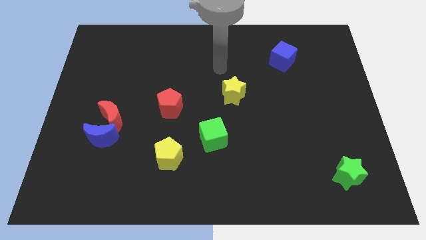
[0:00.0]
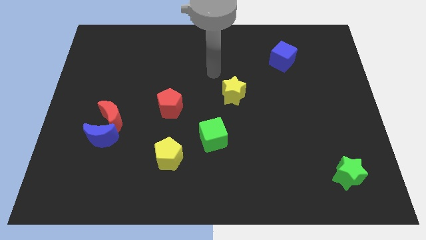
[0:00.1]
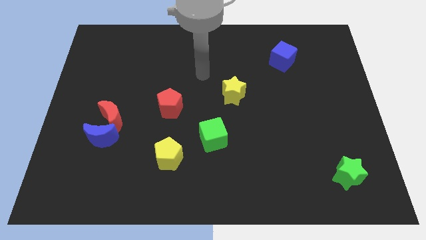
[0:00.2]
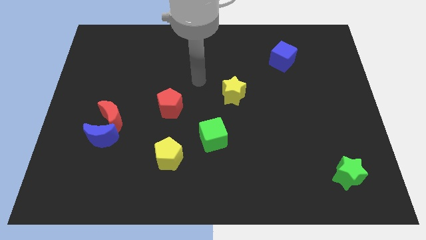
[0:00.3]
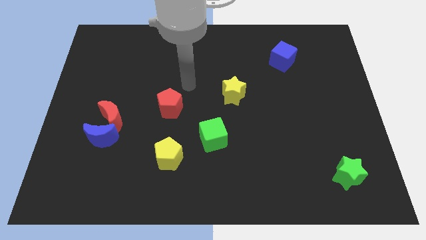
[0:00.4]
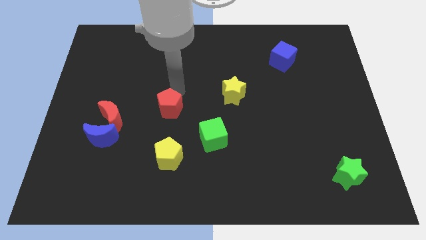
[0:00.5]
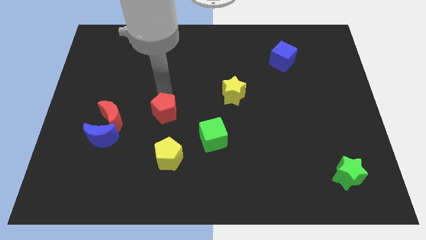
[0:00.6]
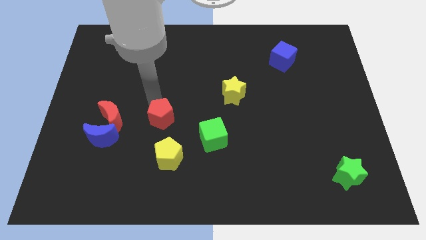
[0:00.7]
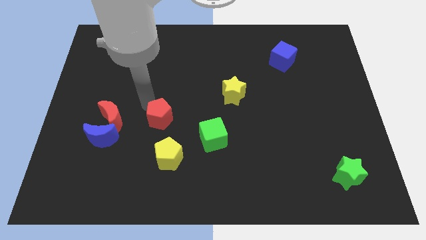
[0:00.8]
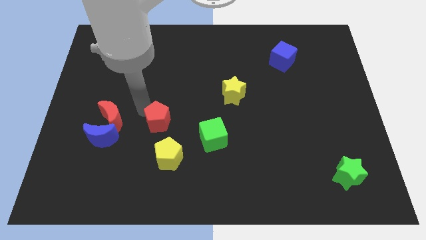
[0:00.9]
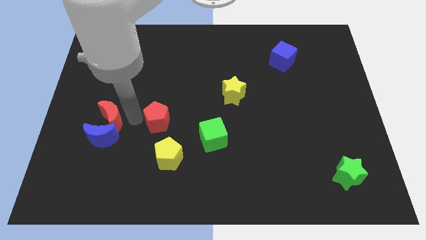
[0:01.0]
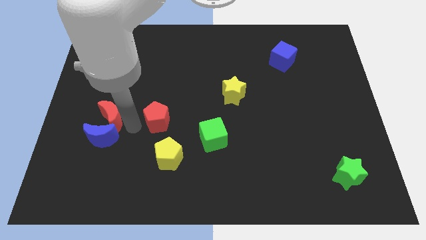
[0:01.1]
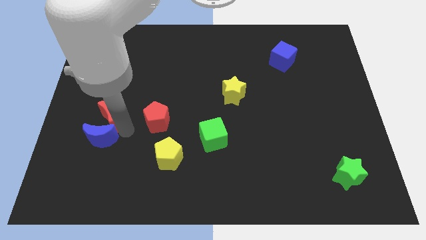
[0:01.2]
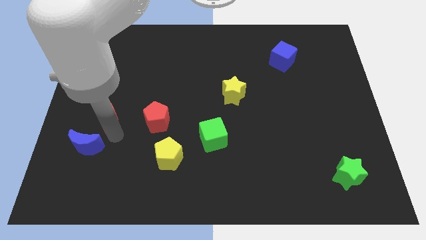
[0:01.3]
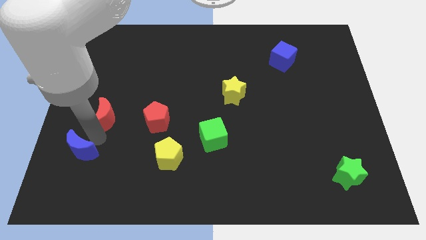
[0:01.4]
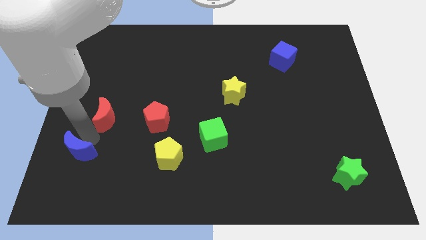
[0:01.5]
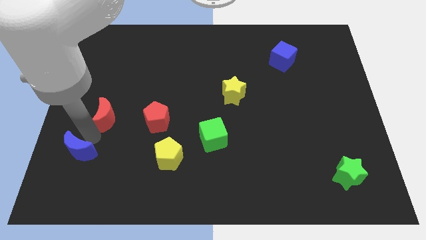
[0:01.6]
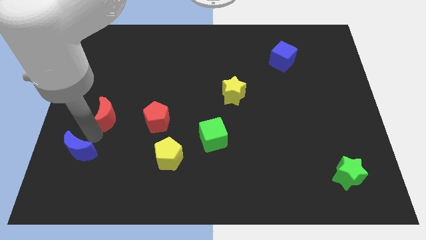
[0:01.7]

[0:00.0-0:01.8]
pull the red moon apart from the blue moon

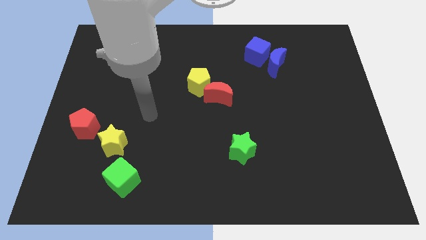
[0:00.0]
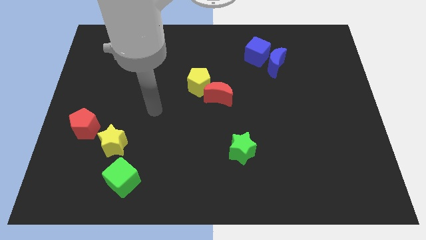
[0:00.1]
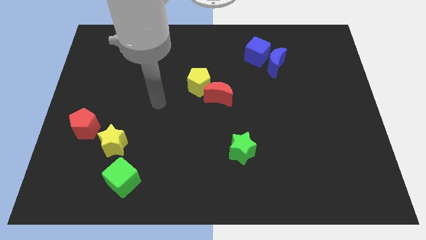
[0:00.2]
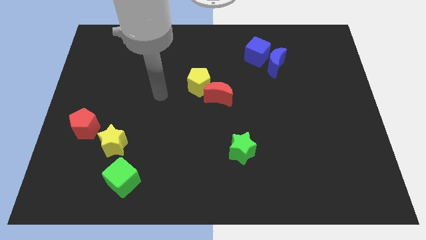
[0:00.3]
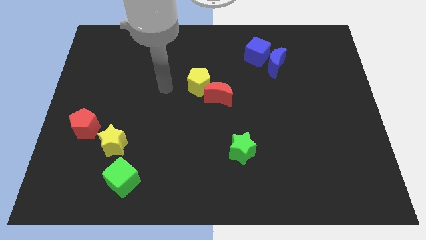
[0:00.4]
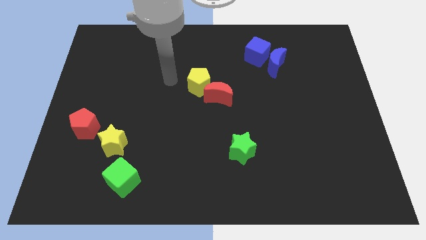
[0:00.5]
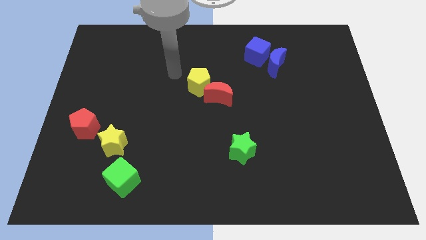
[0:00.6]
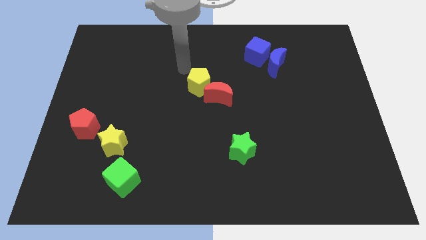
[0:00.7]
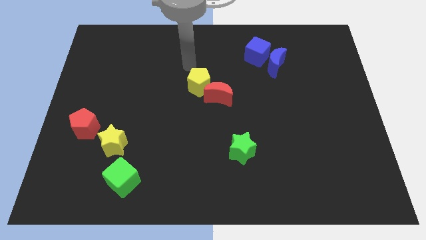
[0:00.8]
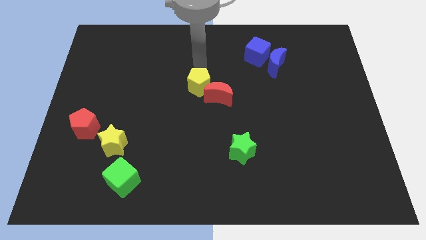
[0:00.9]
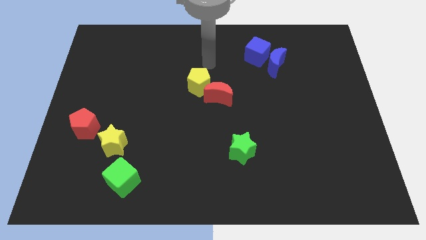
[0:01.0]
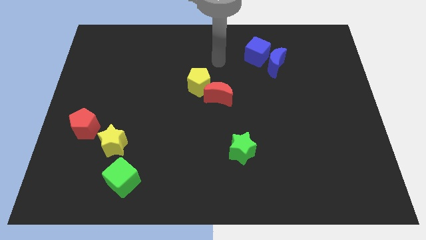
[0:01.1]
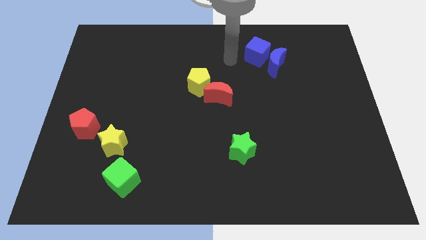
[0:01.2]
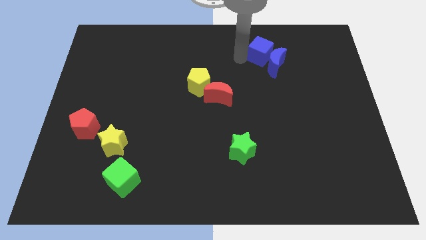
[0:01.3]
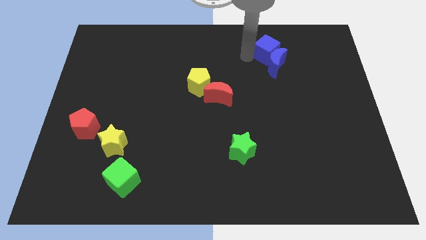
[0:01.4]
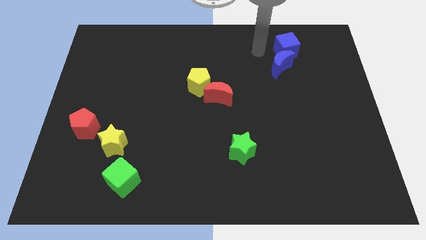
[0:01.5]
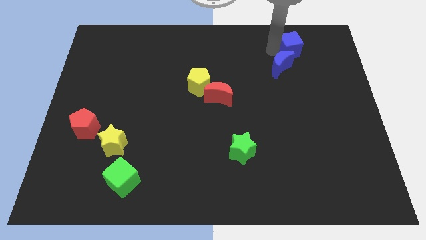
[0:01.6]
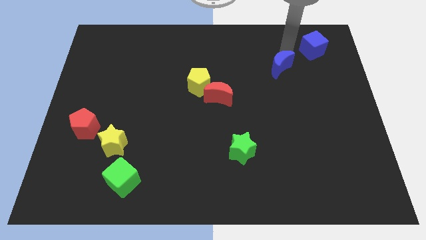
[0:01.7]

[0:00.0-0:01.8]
move the blue moon away from the blue cube

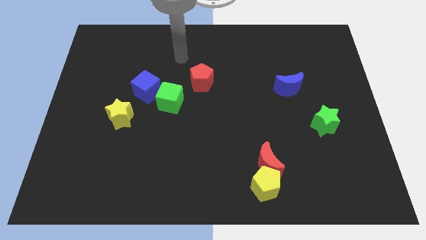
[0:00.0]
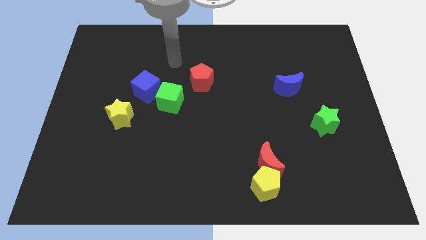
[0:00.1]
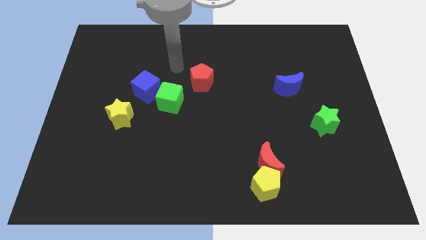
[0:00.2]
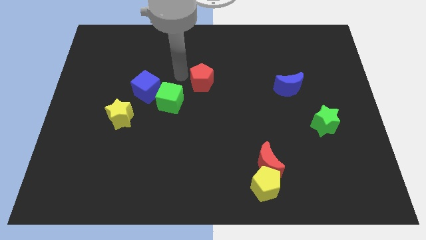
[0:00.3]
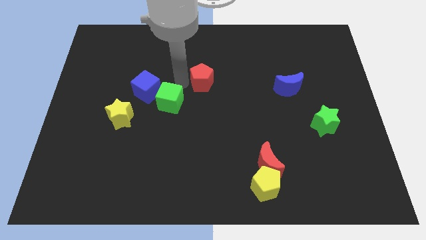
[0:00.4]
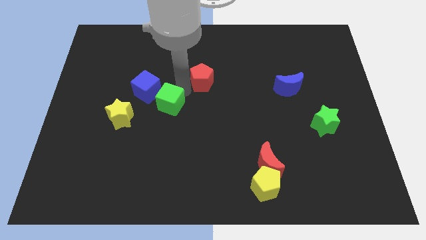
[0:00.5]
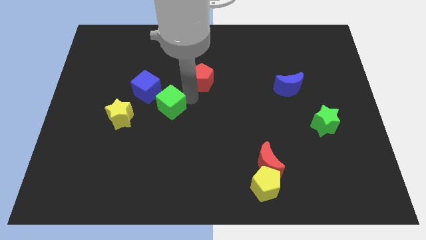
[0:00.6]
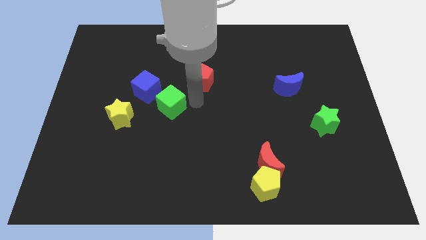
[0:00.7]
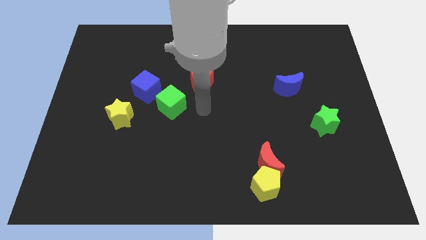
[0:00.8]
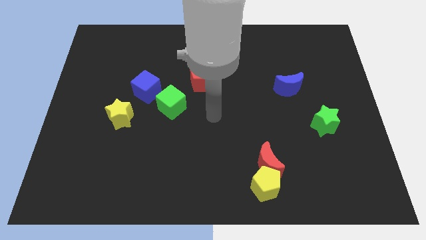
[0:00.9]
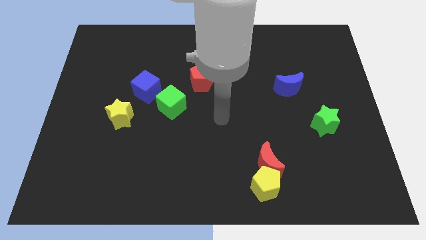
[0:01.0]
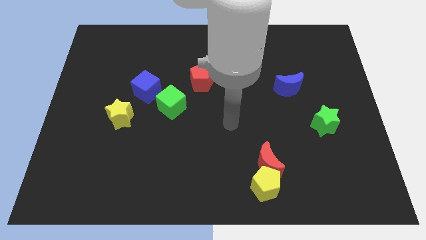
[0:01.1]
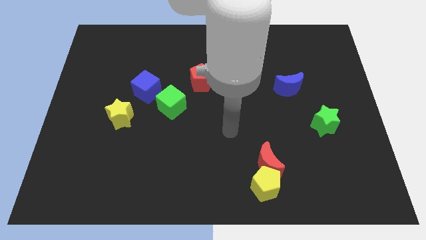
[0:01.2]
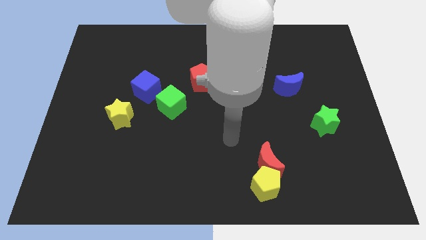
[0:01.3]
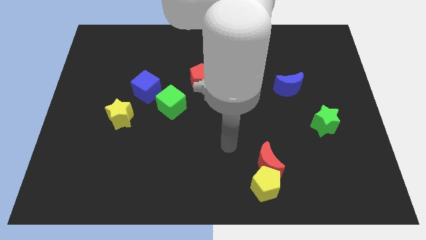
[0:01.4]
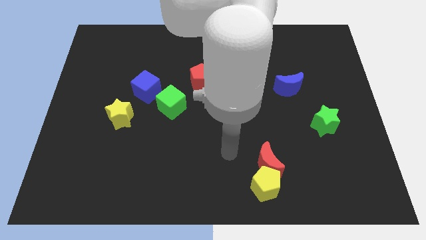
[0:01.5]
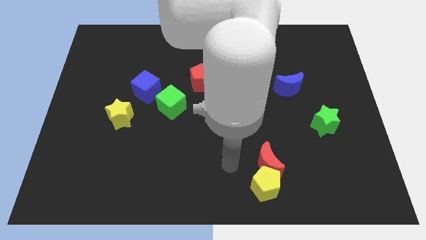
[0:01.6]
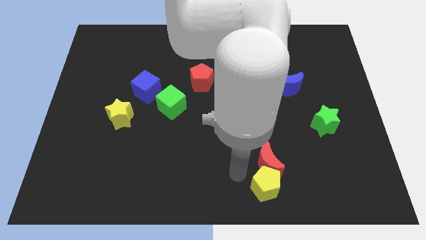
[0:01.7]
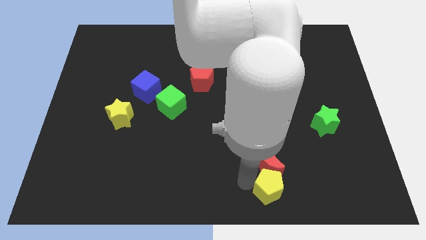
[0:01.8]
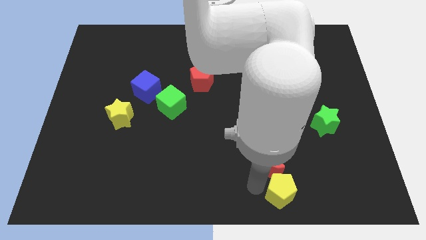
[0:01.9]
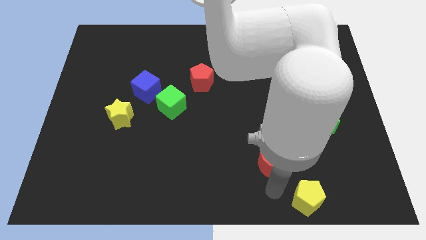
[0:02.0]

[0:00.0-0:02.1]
separate the red moon from the yellow pentagon

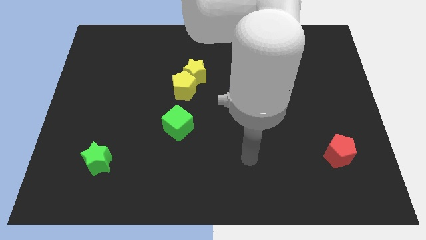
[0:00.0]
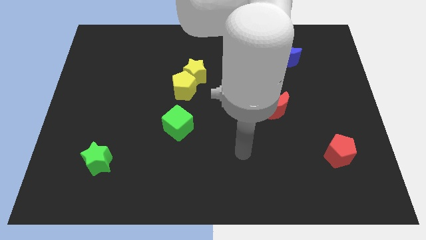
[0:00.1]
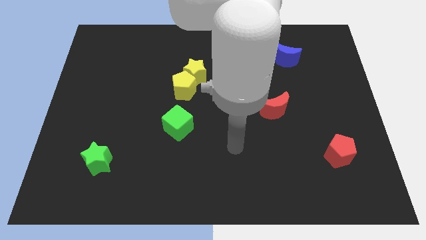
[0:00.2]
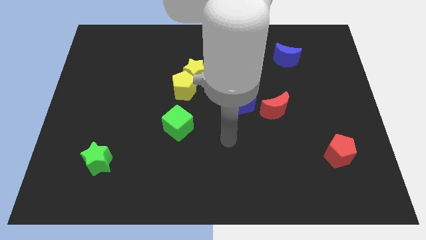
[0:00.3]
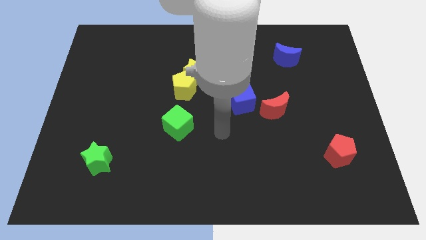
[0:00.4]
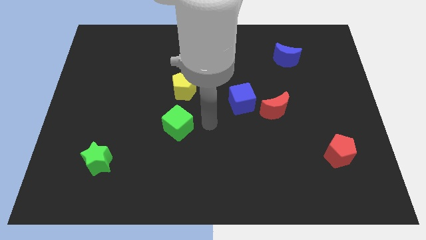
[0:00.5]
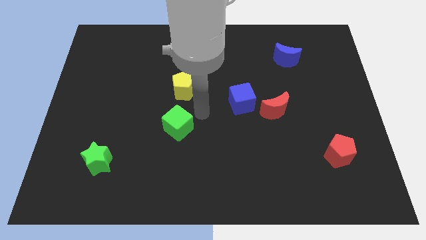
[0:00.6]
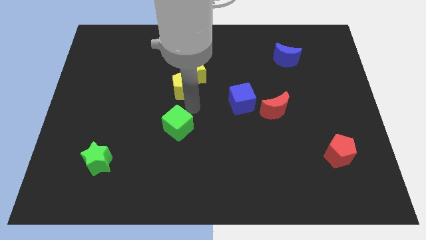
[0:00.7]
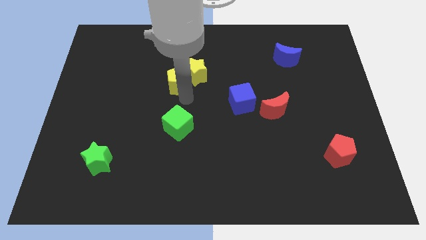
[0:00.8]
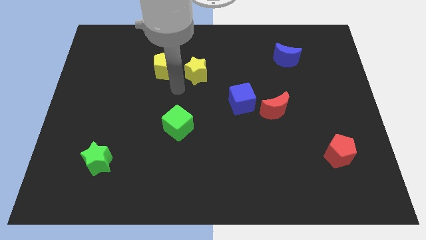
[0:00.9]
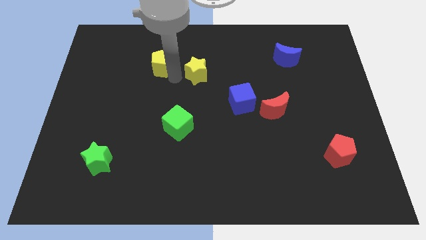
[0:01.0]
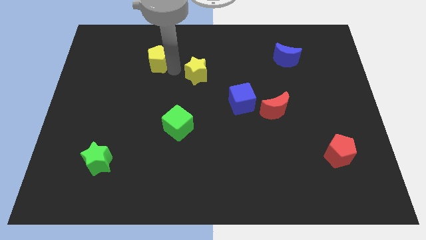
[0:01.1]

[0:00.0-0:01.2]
move the yellow star away from the yellow pentagon

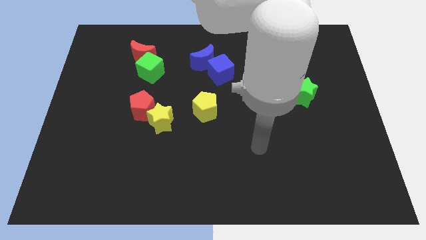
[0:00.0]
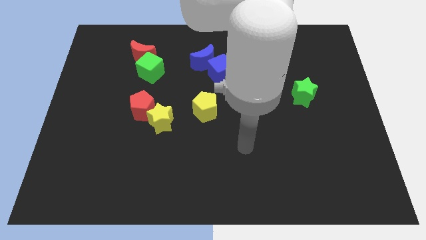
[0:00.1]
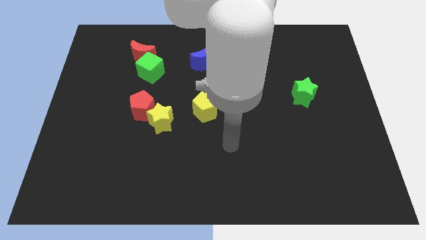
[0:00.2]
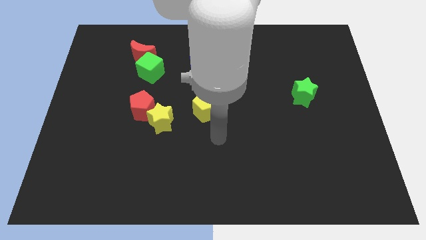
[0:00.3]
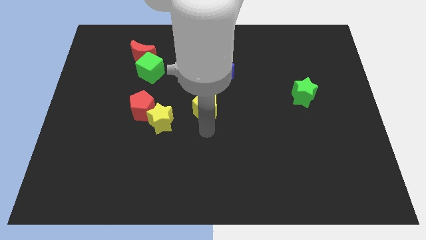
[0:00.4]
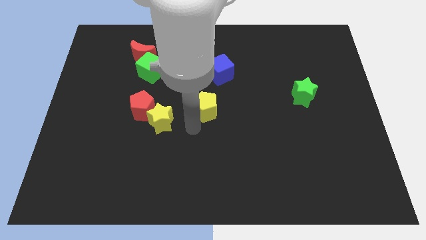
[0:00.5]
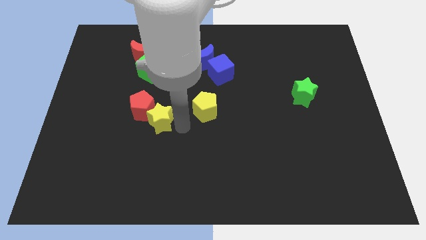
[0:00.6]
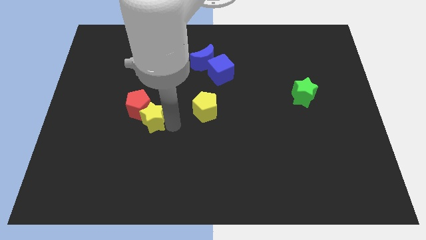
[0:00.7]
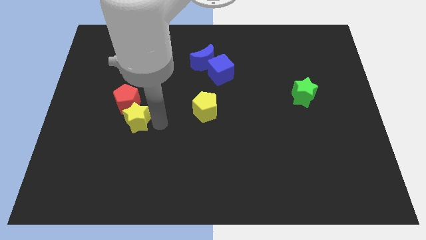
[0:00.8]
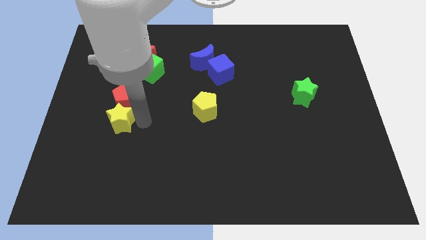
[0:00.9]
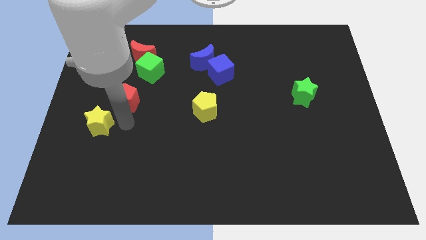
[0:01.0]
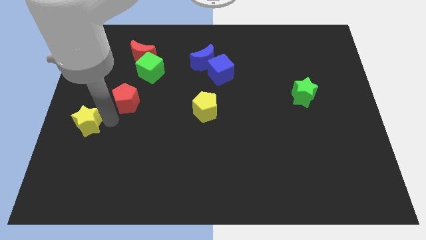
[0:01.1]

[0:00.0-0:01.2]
move the red pentagon away from the yellow star

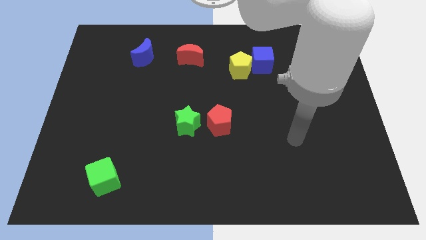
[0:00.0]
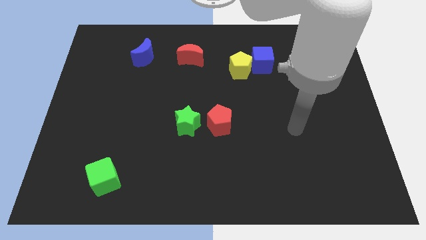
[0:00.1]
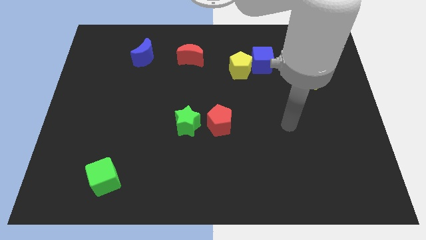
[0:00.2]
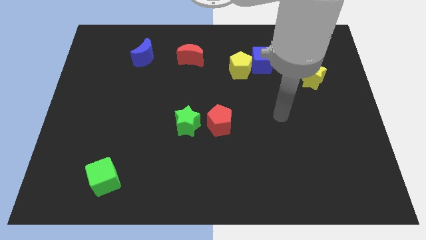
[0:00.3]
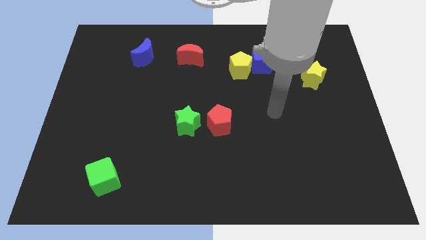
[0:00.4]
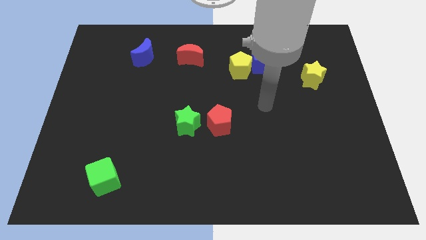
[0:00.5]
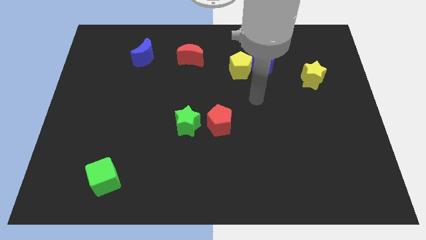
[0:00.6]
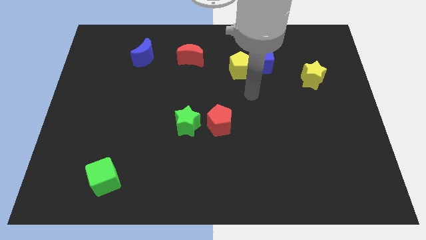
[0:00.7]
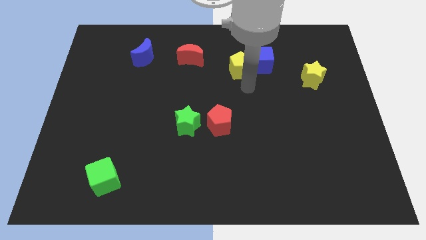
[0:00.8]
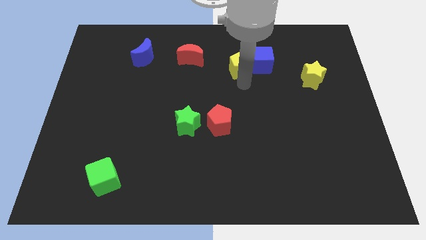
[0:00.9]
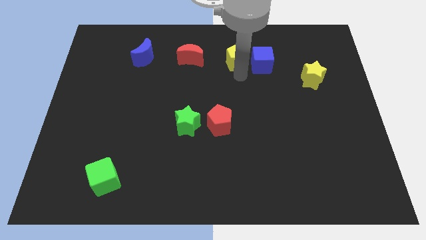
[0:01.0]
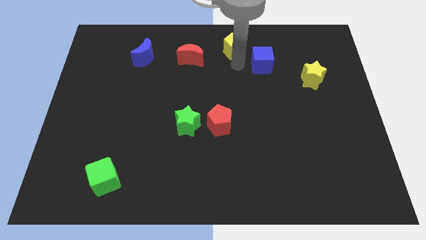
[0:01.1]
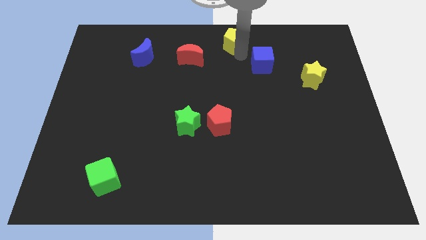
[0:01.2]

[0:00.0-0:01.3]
separate the blue cube from the yellow pentagon
